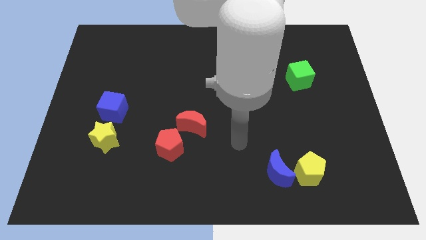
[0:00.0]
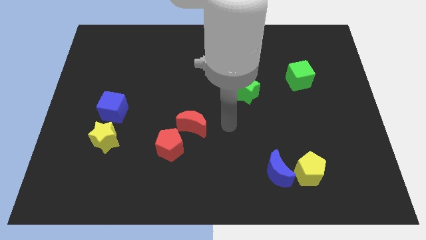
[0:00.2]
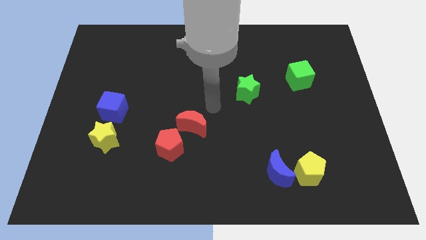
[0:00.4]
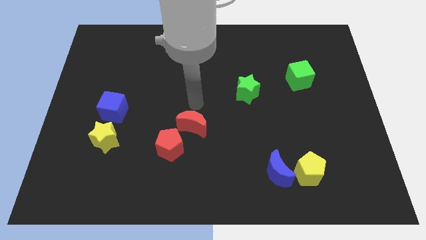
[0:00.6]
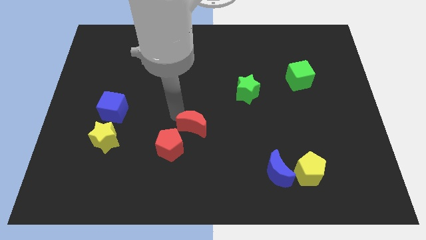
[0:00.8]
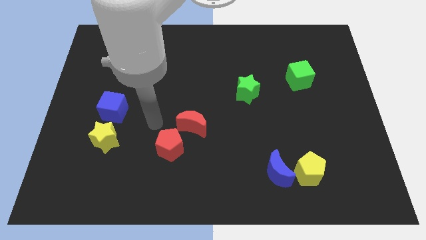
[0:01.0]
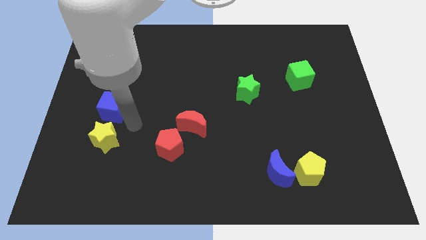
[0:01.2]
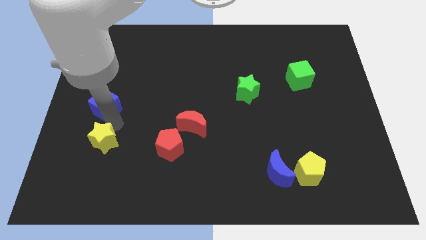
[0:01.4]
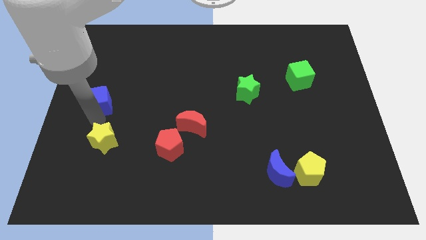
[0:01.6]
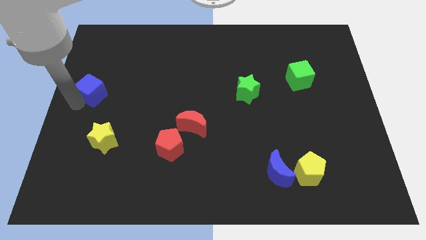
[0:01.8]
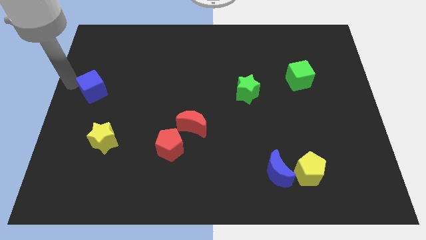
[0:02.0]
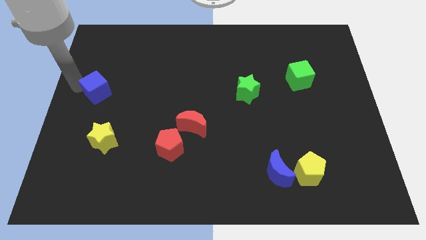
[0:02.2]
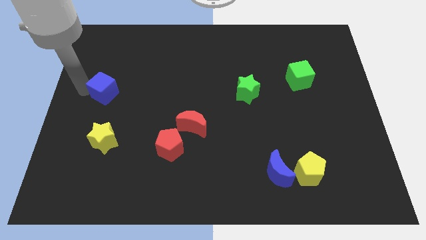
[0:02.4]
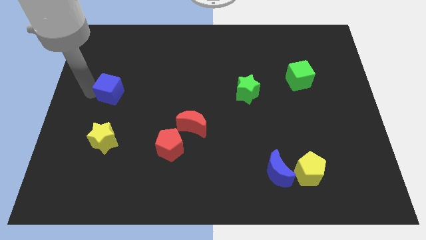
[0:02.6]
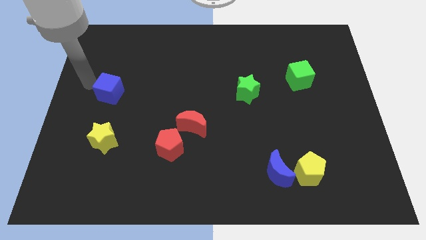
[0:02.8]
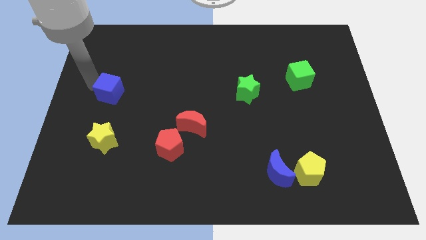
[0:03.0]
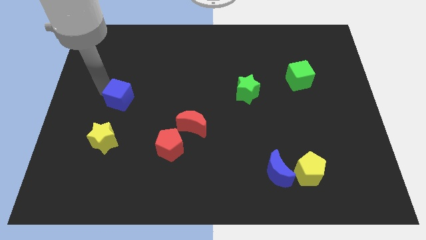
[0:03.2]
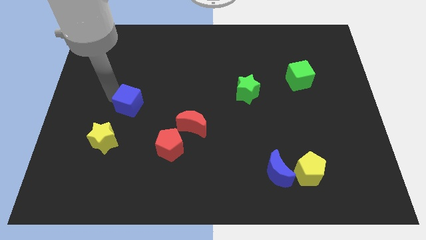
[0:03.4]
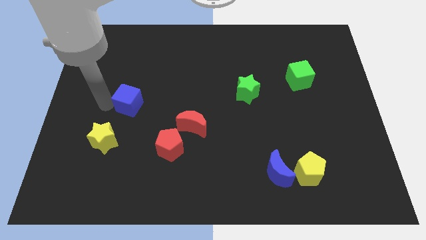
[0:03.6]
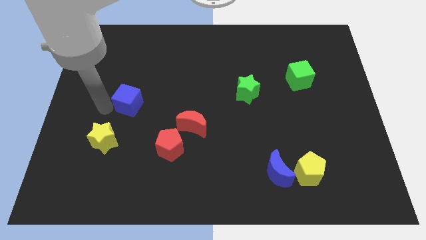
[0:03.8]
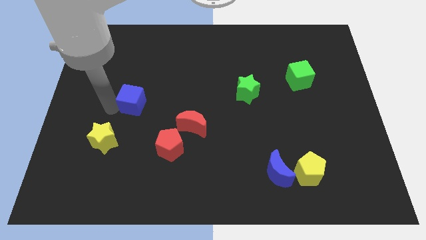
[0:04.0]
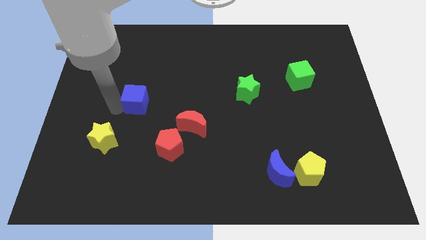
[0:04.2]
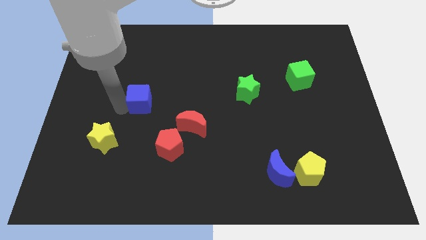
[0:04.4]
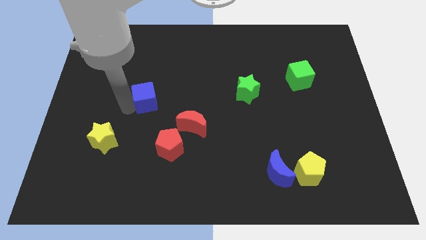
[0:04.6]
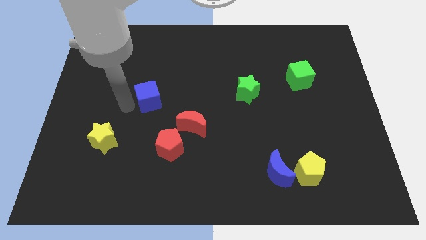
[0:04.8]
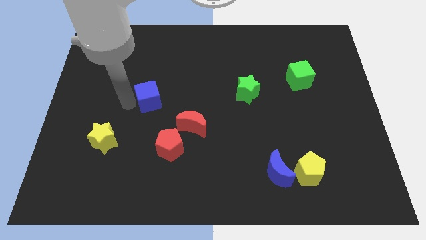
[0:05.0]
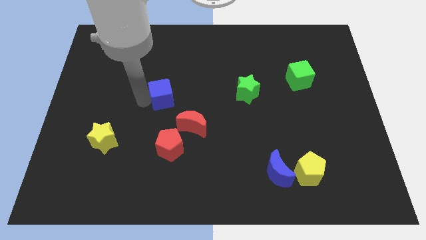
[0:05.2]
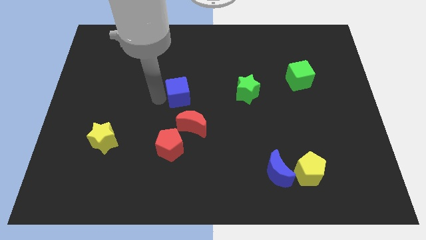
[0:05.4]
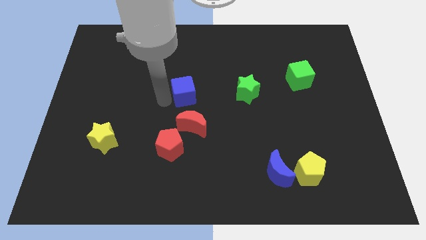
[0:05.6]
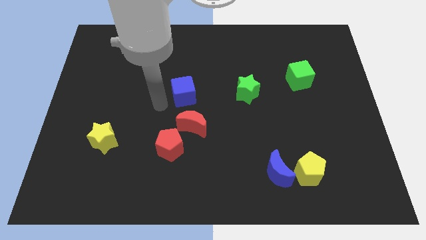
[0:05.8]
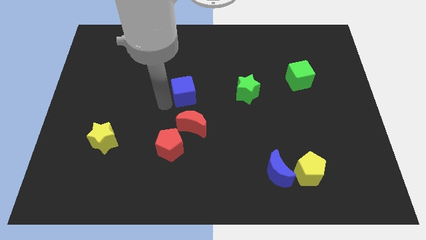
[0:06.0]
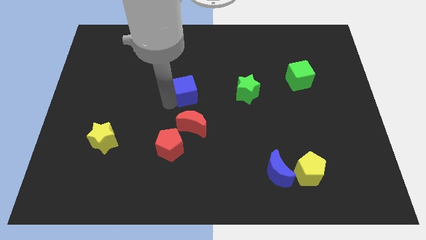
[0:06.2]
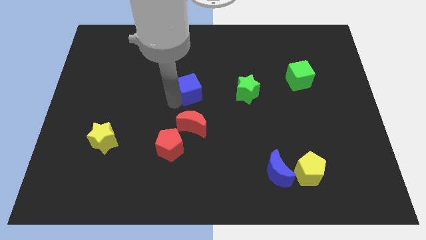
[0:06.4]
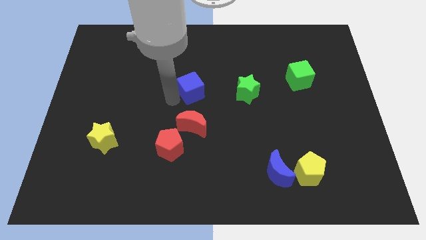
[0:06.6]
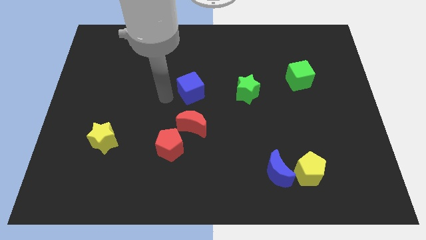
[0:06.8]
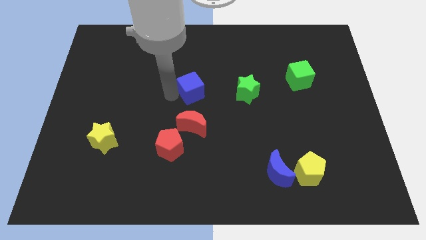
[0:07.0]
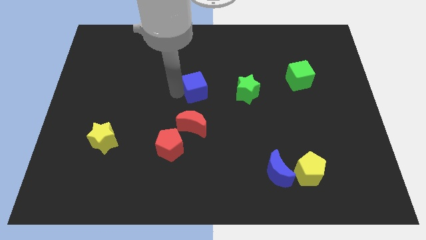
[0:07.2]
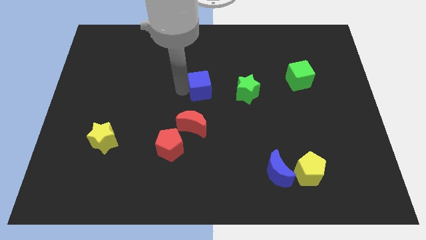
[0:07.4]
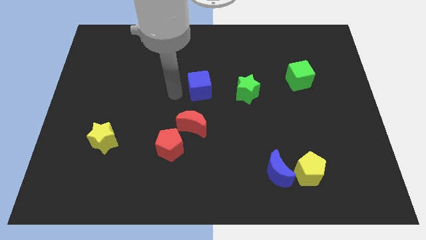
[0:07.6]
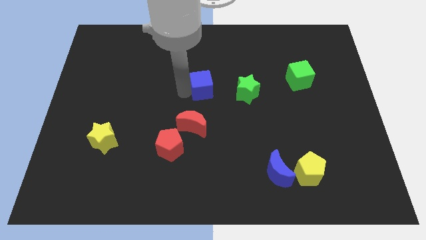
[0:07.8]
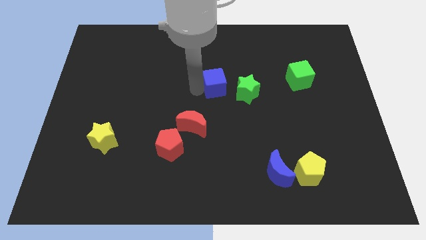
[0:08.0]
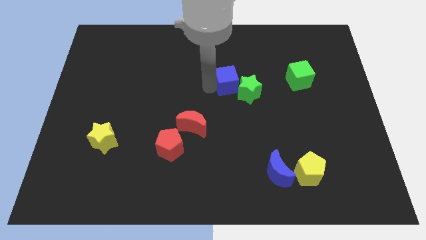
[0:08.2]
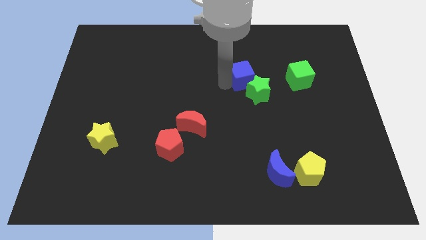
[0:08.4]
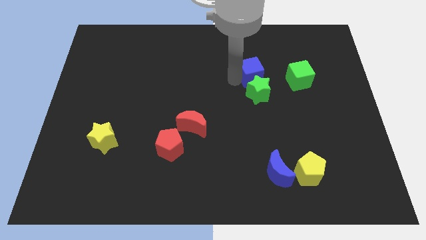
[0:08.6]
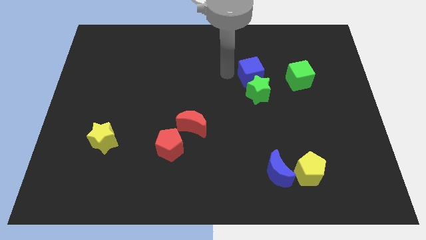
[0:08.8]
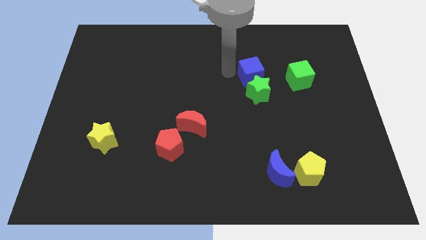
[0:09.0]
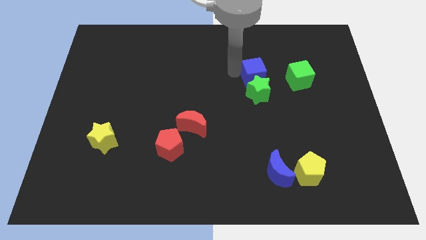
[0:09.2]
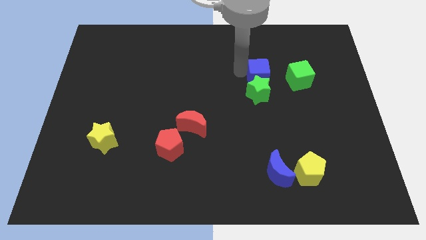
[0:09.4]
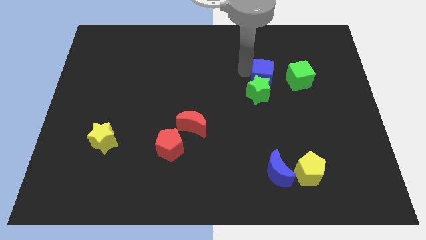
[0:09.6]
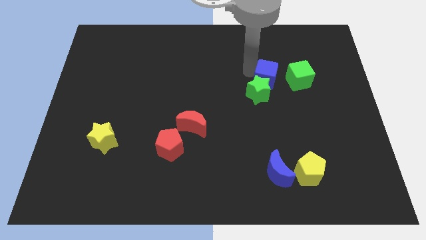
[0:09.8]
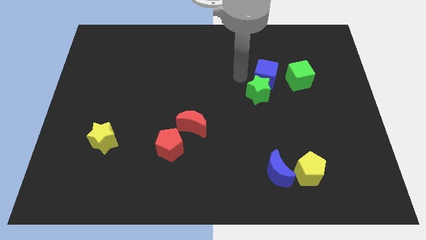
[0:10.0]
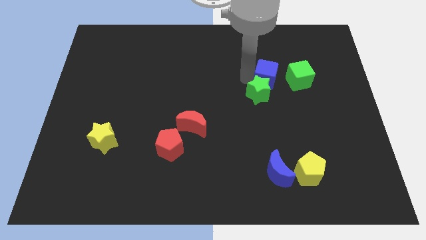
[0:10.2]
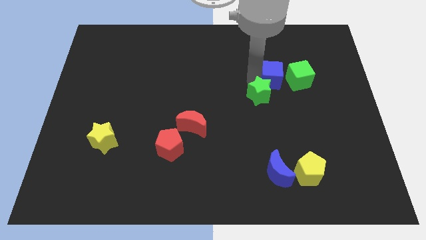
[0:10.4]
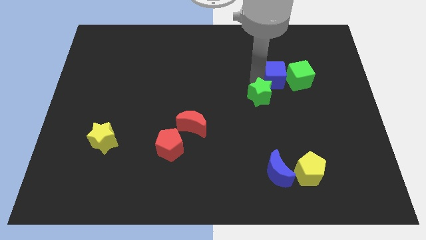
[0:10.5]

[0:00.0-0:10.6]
push the blue cube to the green cube

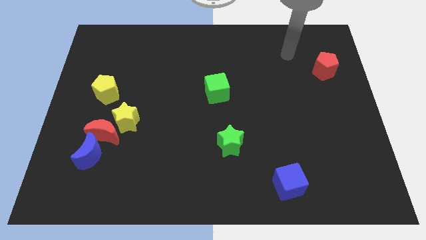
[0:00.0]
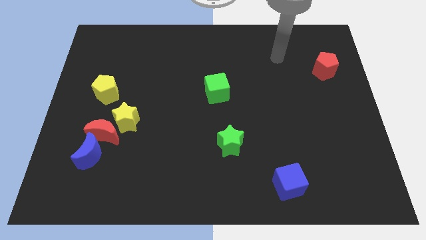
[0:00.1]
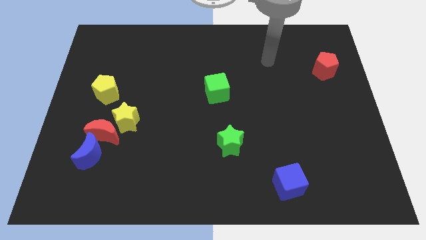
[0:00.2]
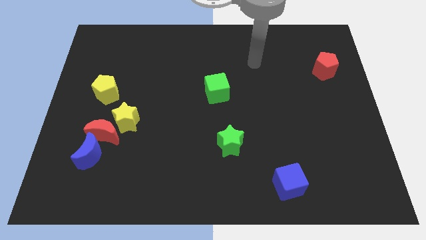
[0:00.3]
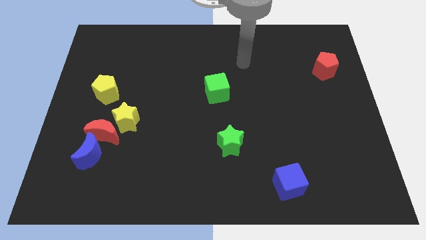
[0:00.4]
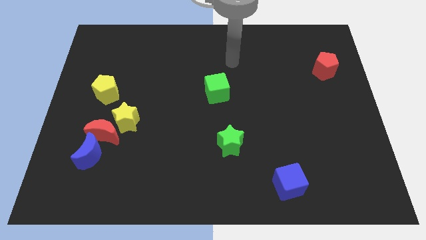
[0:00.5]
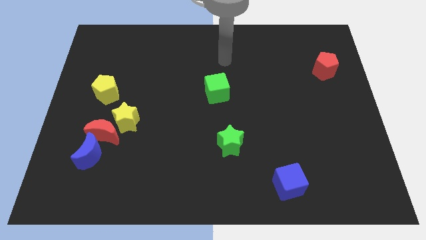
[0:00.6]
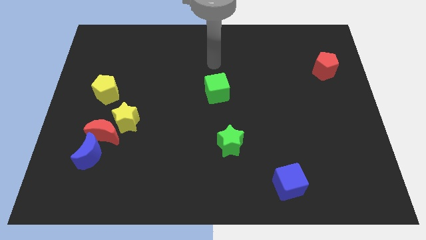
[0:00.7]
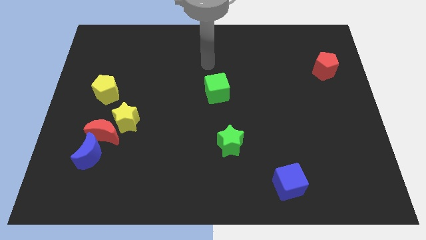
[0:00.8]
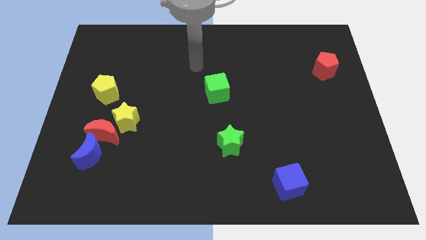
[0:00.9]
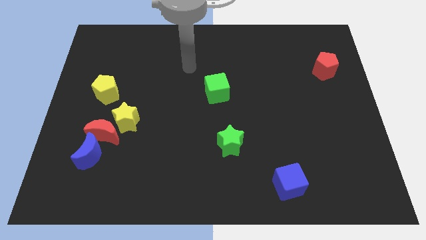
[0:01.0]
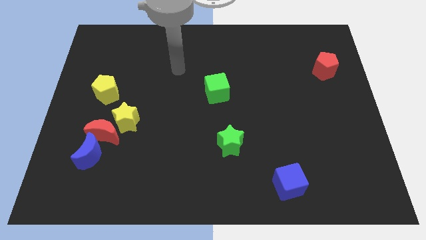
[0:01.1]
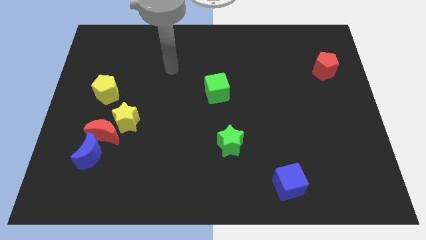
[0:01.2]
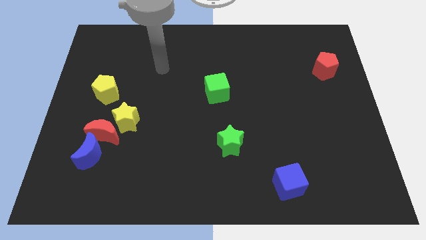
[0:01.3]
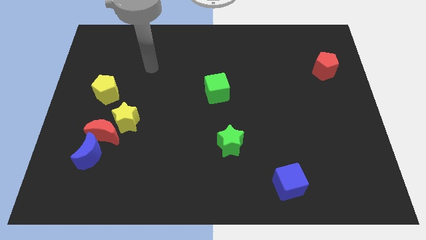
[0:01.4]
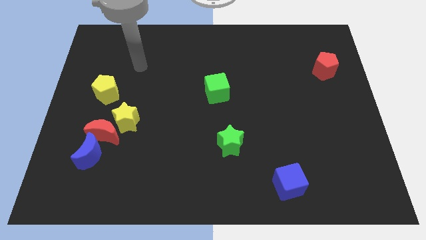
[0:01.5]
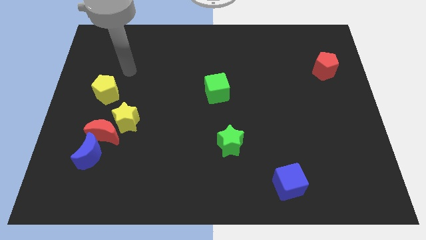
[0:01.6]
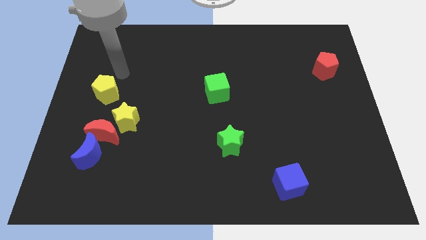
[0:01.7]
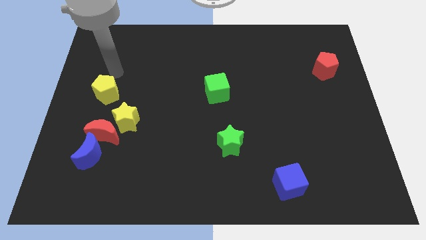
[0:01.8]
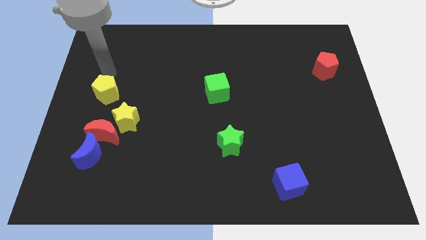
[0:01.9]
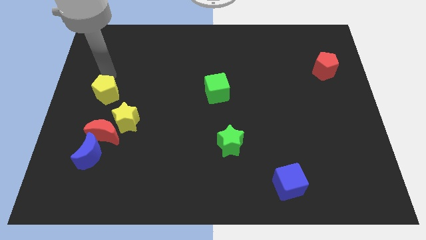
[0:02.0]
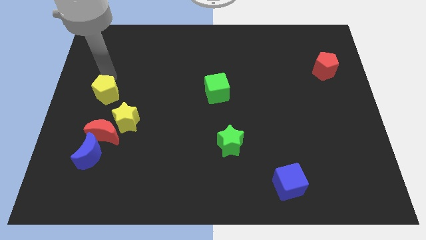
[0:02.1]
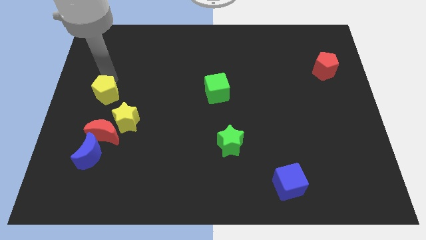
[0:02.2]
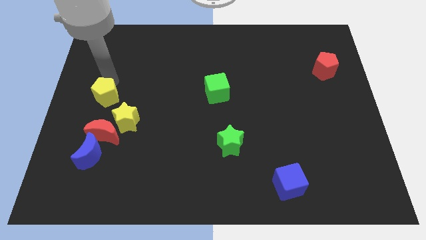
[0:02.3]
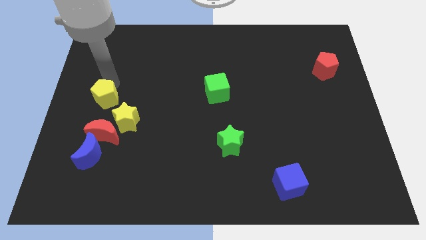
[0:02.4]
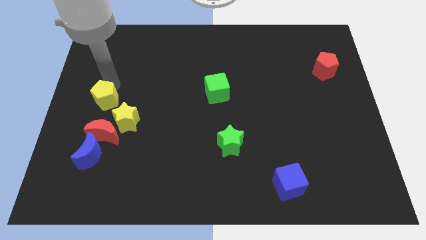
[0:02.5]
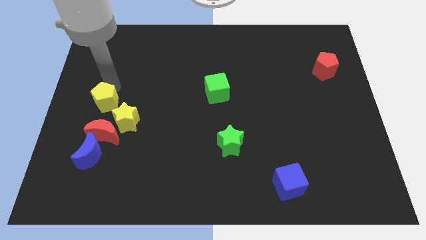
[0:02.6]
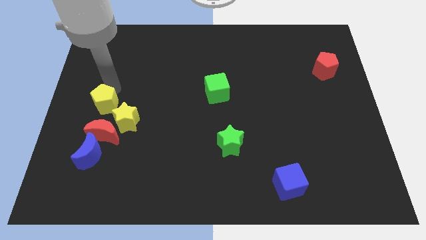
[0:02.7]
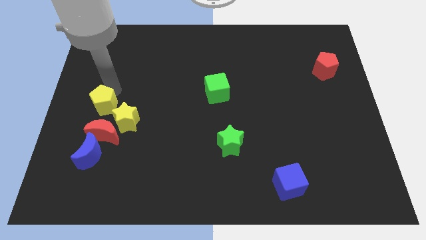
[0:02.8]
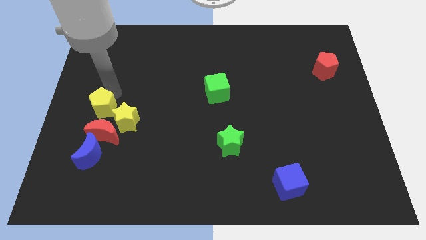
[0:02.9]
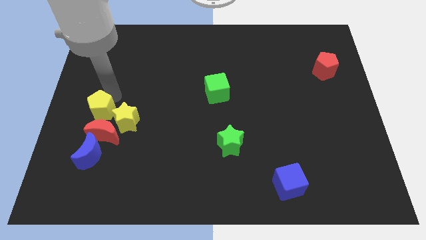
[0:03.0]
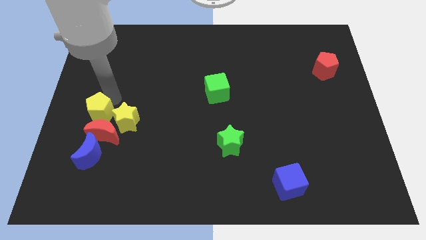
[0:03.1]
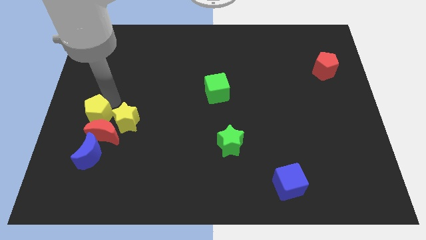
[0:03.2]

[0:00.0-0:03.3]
move the yellow pentagon to the red moon
